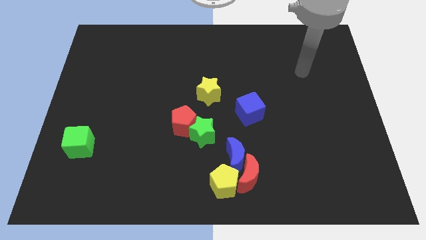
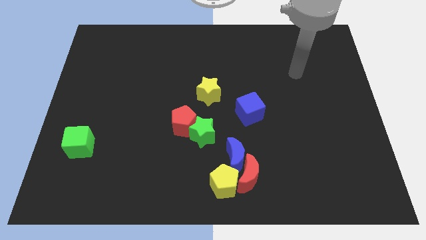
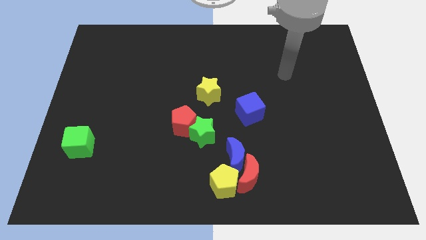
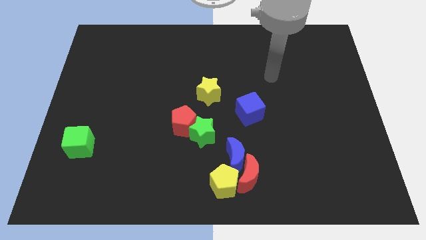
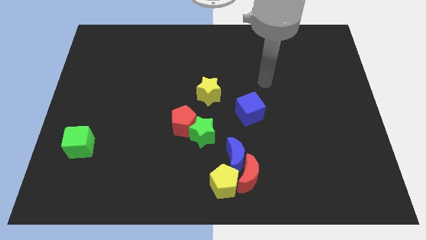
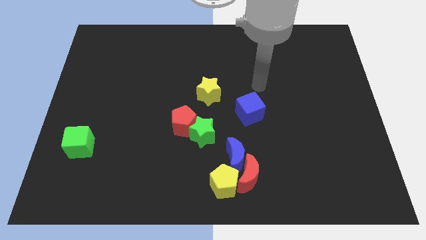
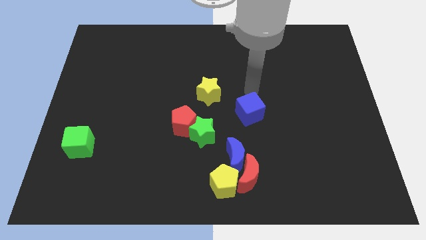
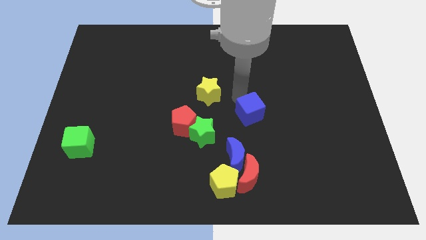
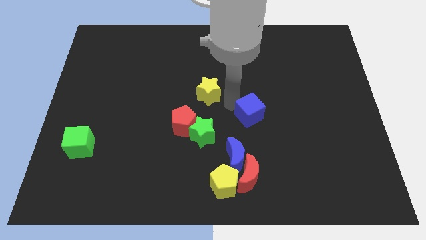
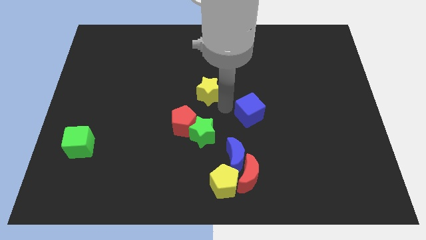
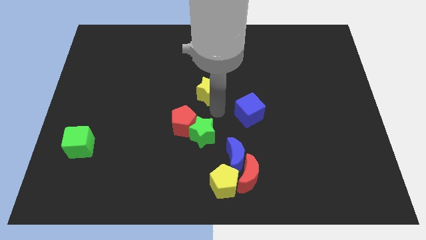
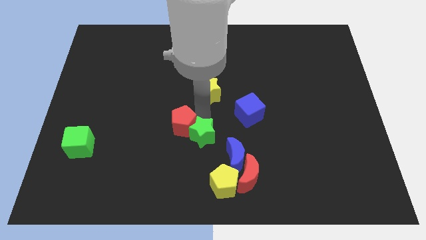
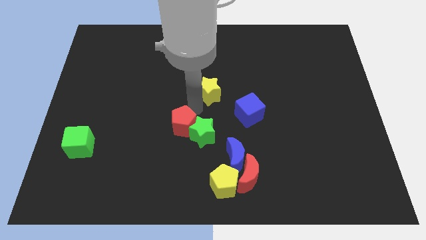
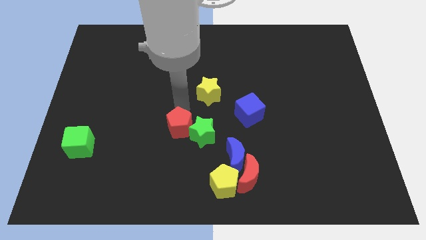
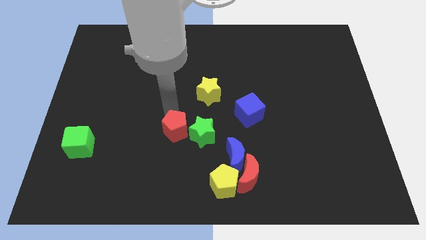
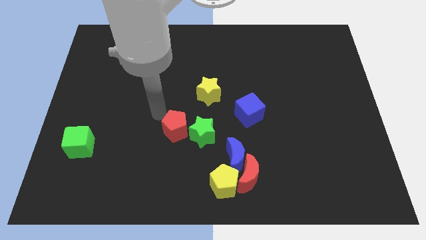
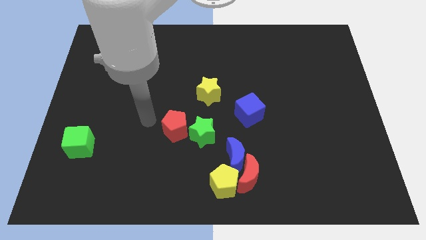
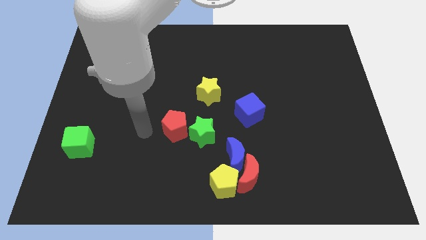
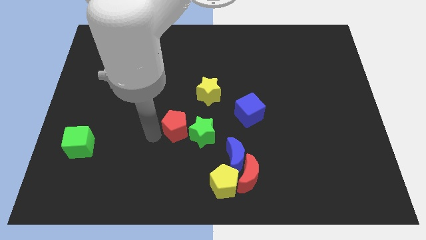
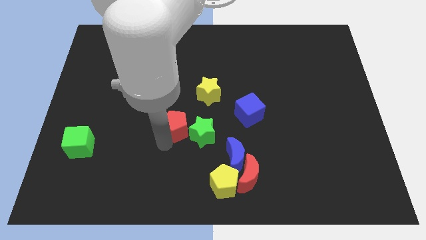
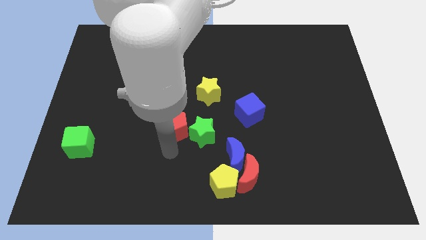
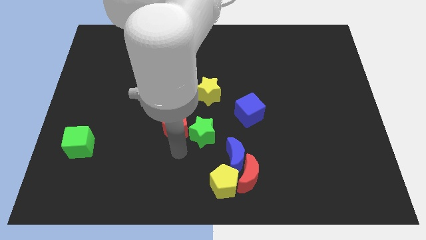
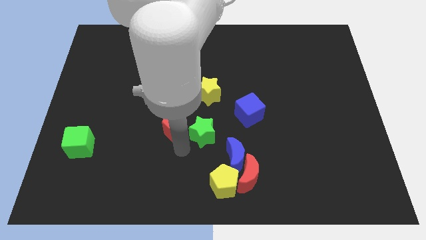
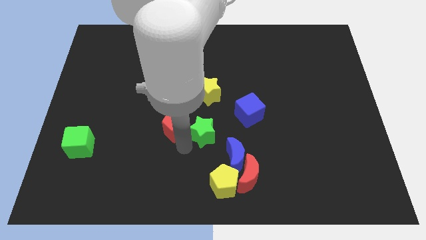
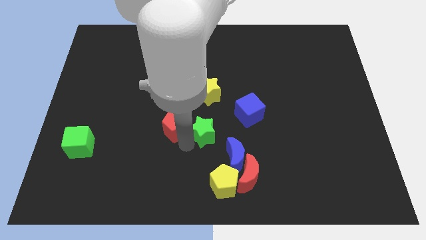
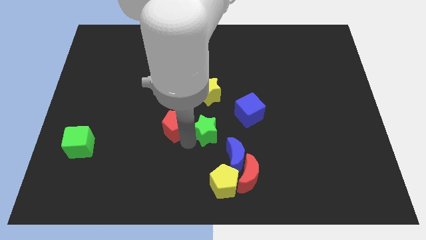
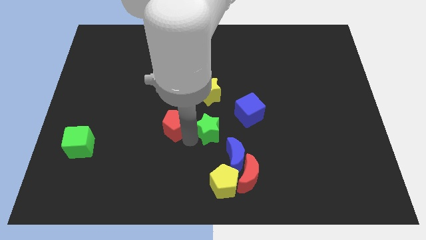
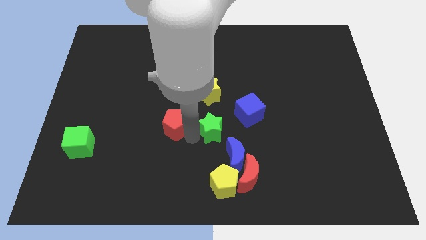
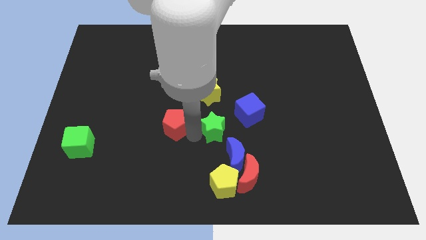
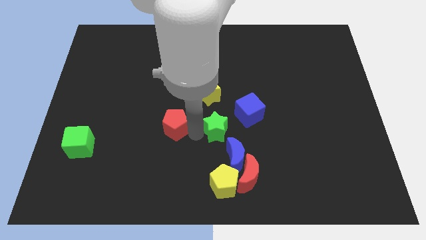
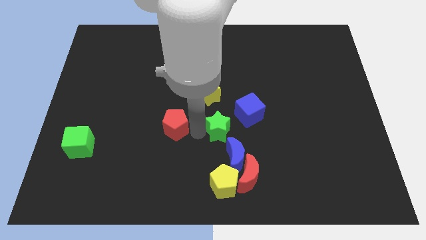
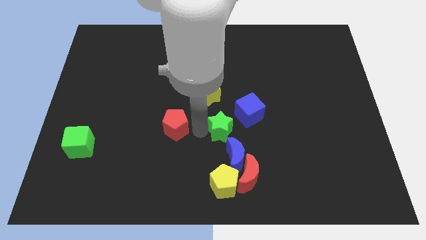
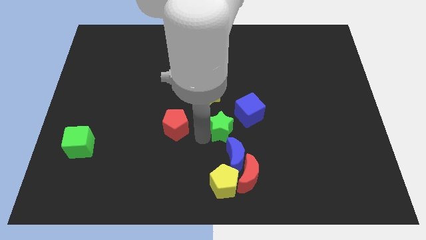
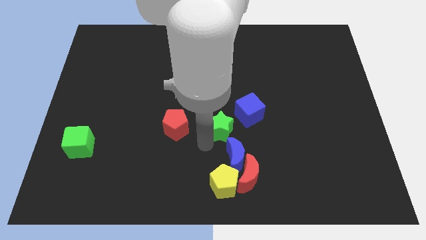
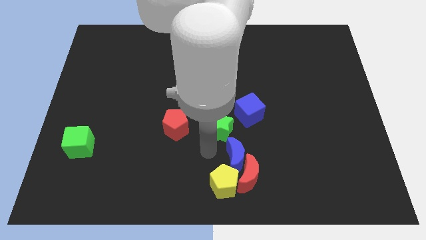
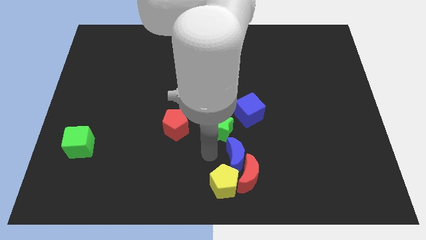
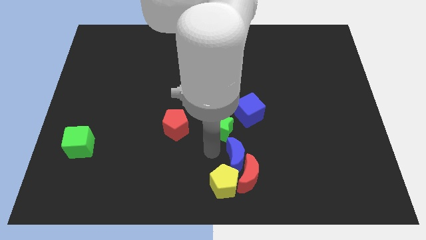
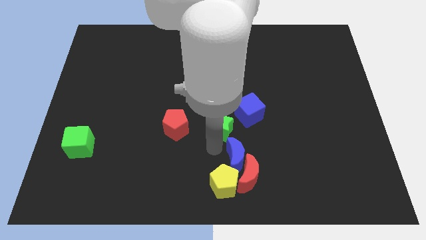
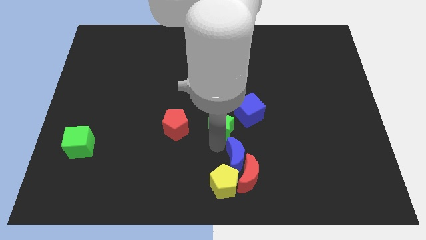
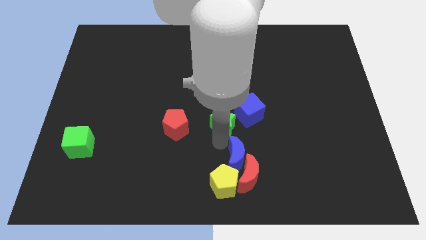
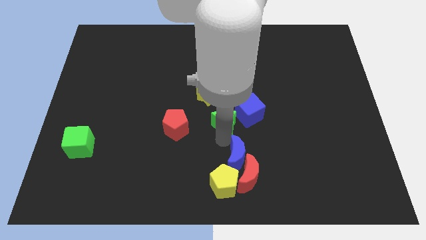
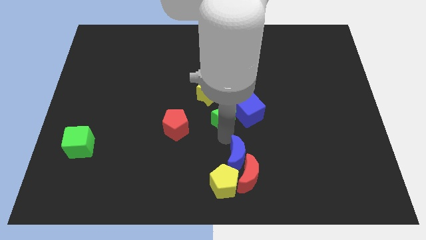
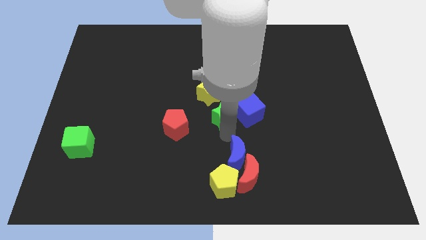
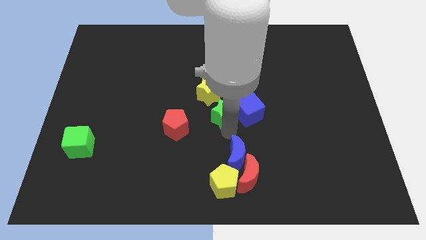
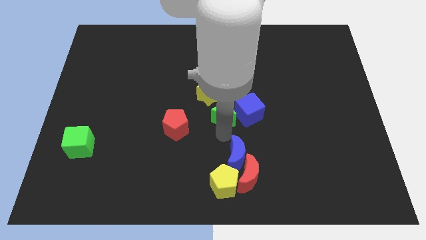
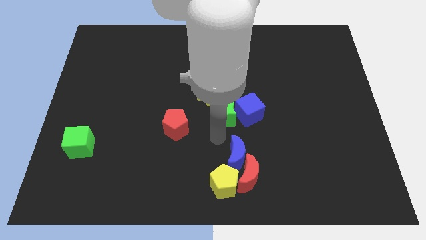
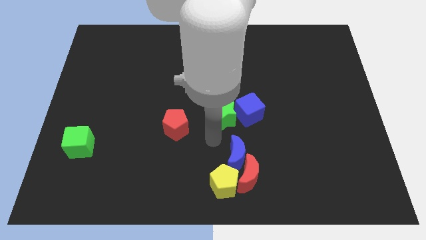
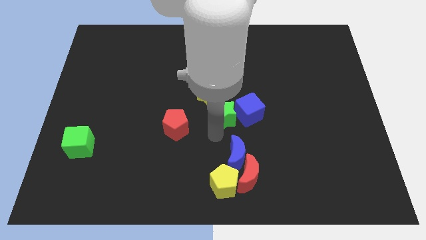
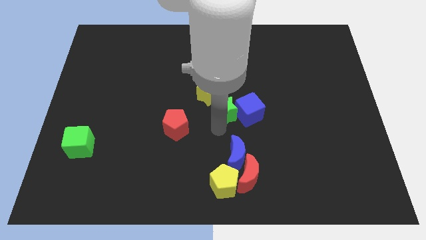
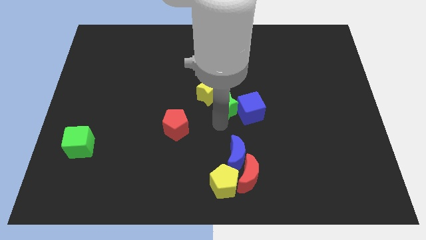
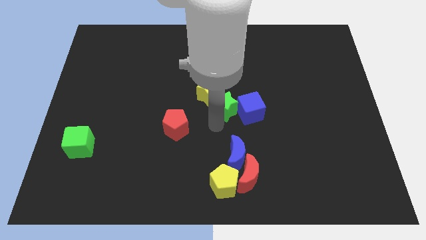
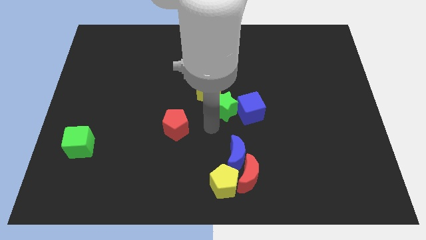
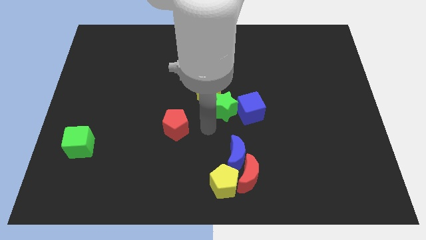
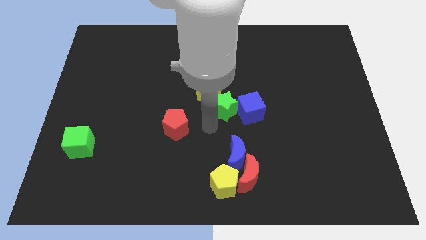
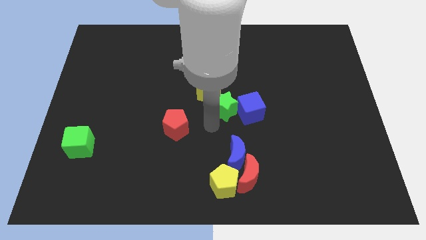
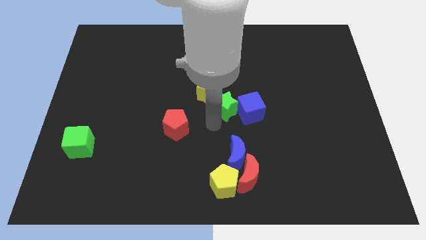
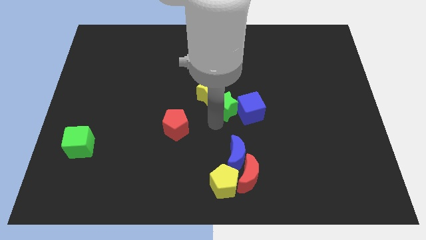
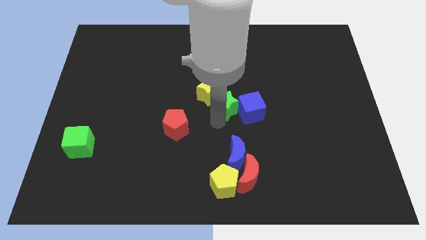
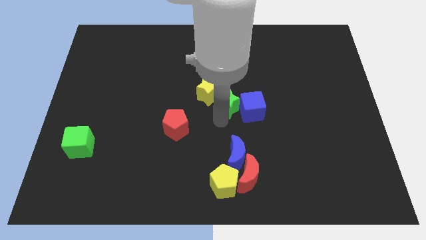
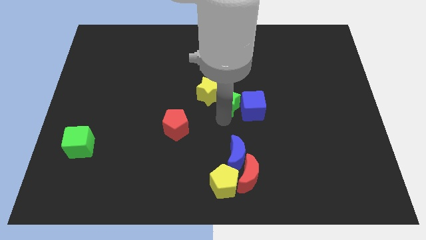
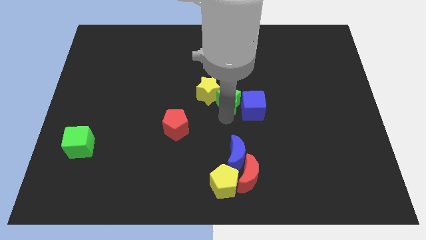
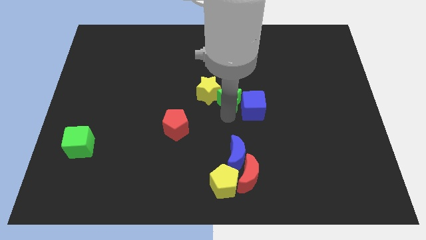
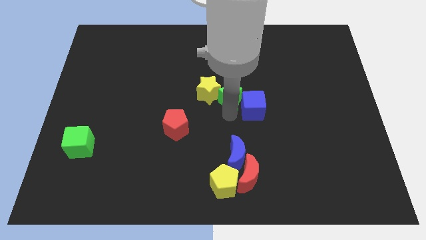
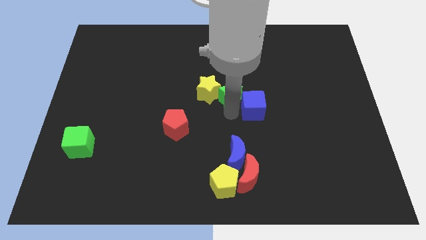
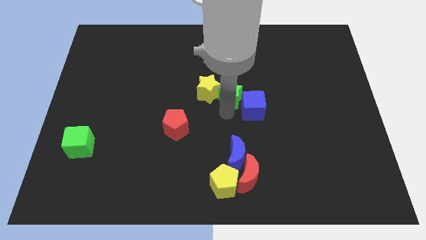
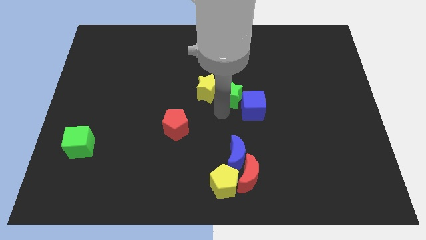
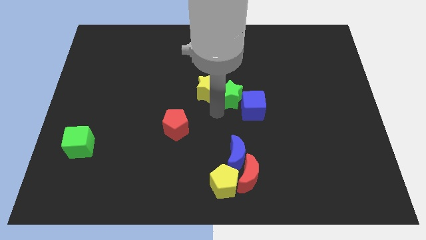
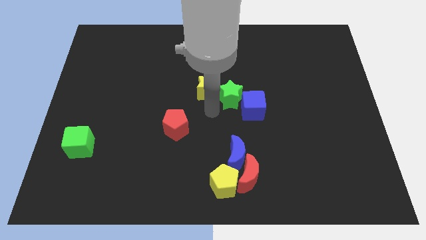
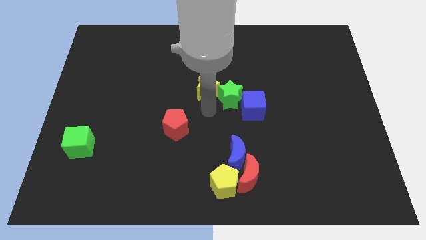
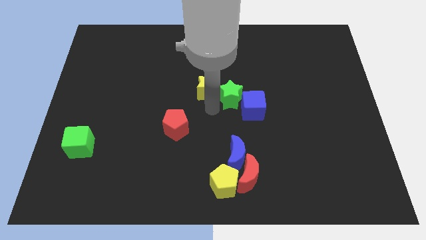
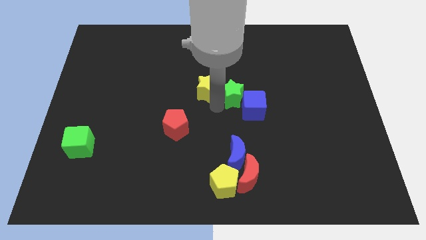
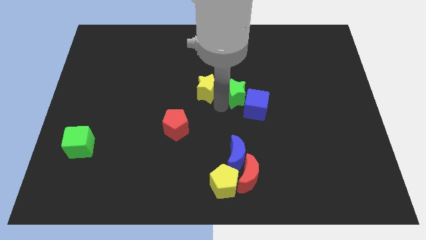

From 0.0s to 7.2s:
push the green star above the blue cube
